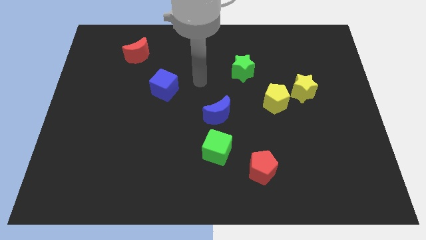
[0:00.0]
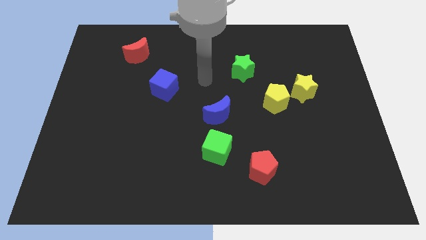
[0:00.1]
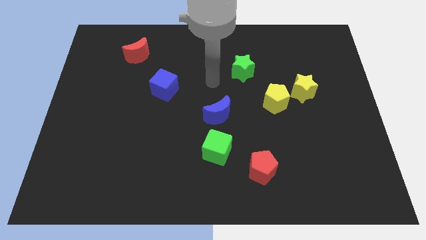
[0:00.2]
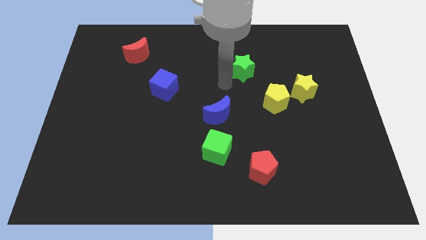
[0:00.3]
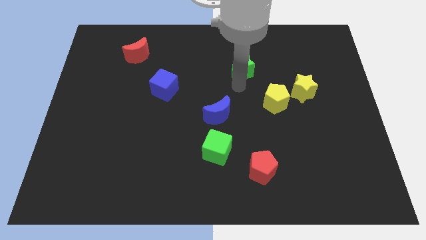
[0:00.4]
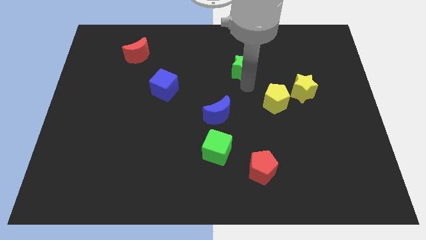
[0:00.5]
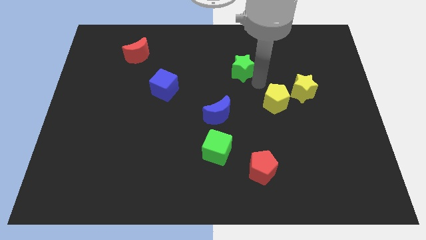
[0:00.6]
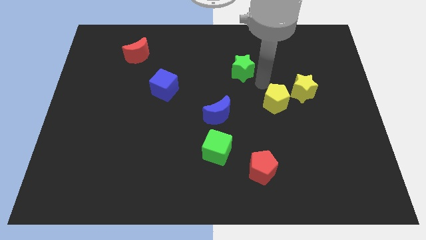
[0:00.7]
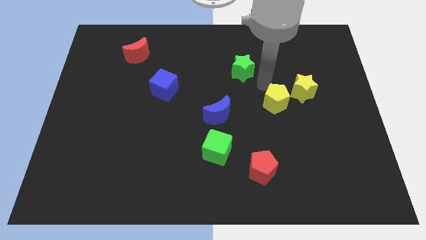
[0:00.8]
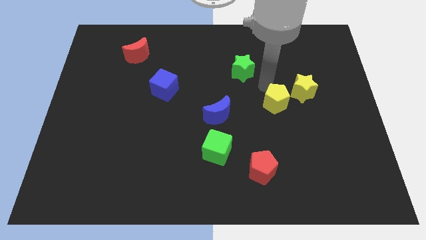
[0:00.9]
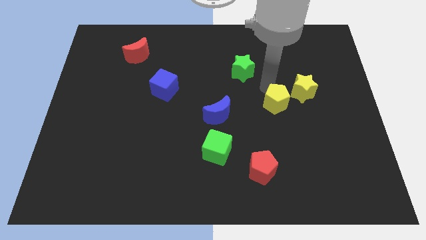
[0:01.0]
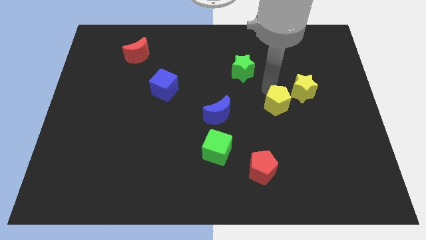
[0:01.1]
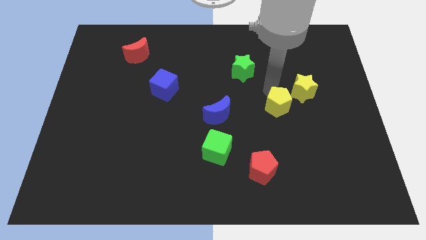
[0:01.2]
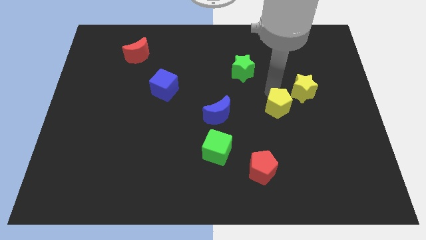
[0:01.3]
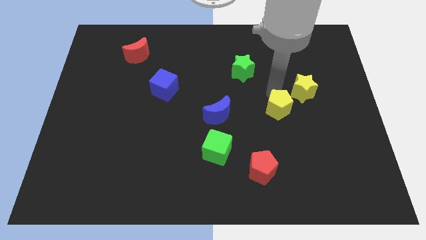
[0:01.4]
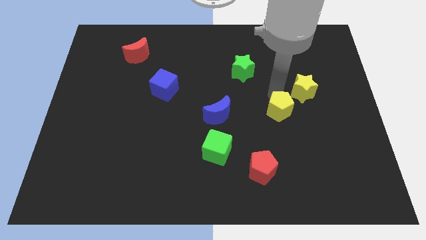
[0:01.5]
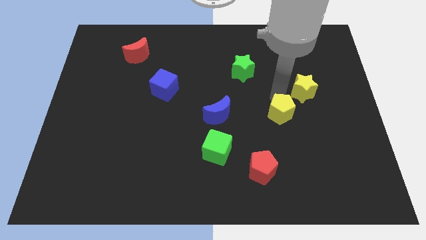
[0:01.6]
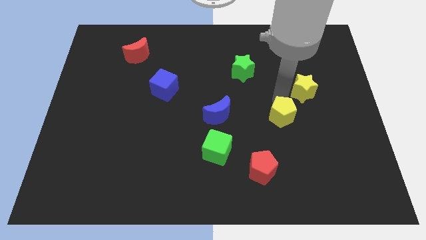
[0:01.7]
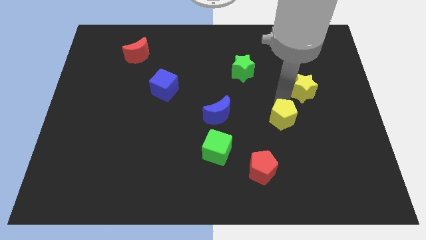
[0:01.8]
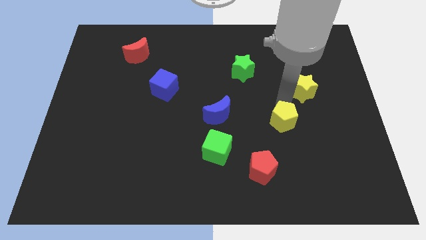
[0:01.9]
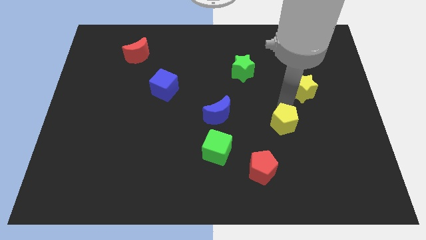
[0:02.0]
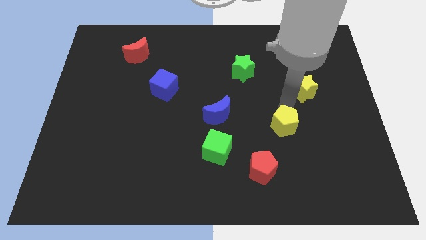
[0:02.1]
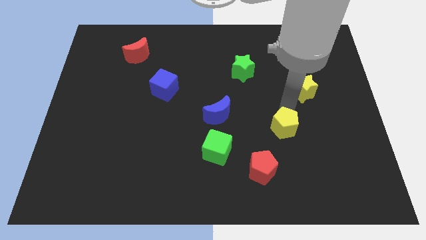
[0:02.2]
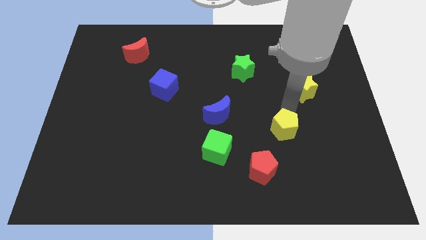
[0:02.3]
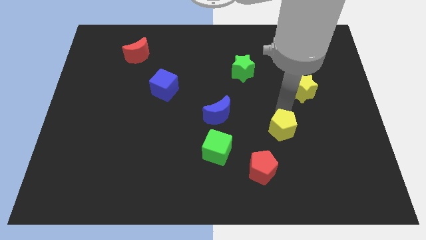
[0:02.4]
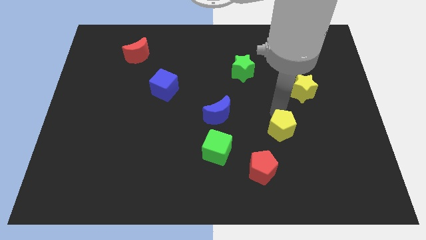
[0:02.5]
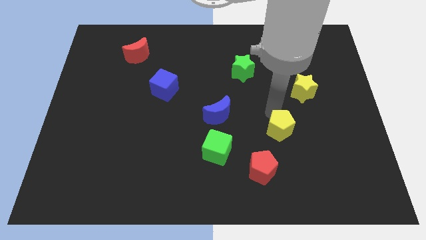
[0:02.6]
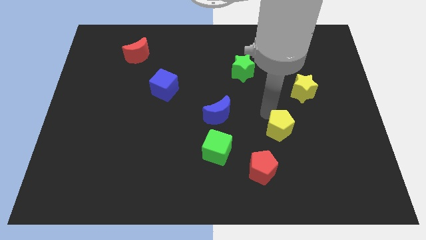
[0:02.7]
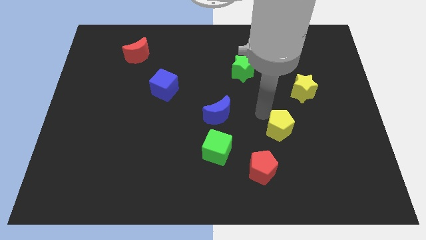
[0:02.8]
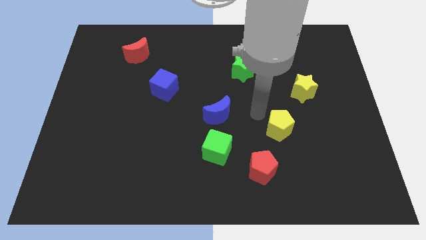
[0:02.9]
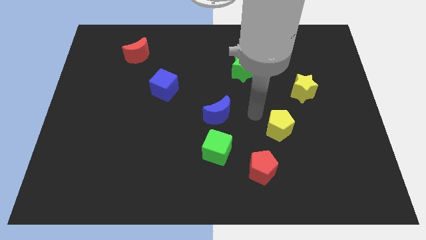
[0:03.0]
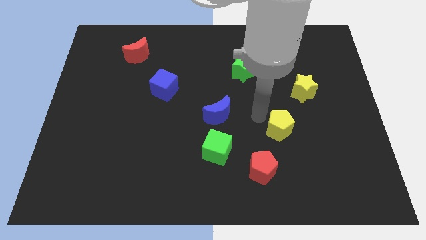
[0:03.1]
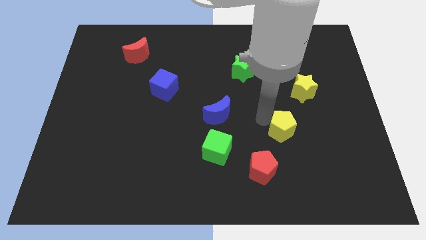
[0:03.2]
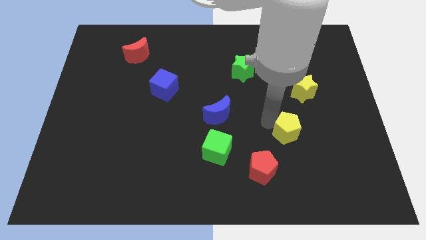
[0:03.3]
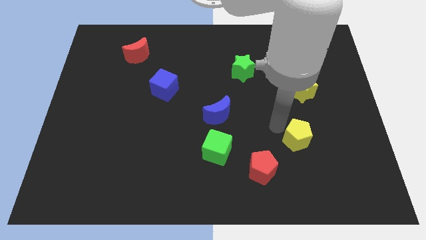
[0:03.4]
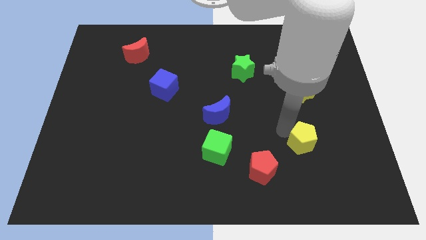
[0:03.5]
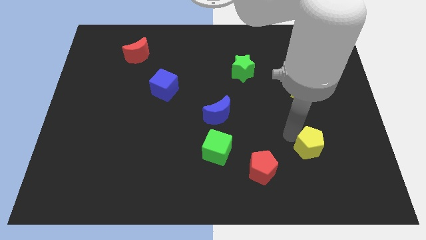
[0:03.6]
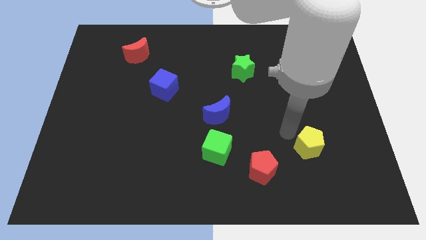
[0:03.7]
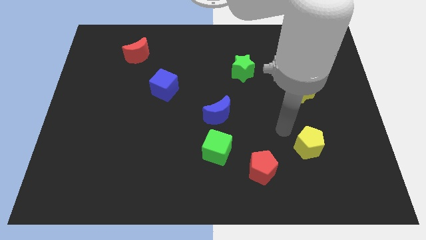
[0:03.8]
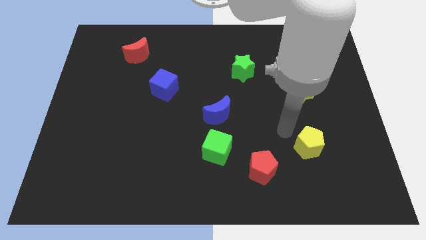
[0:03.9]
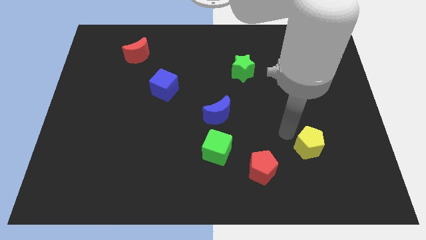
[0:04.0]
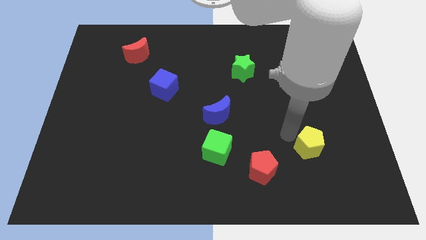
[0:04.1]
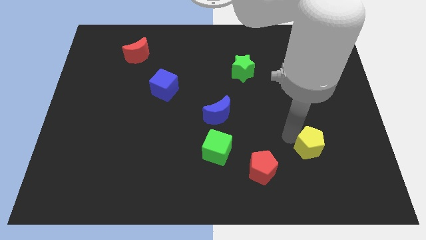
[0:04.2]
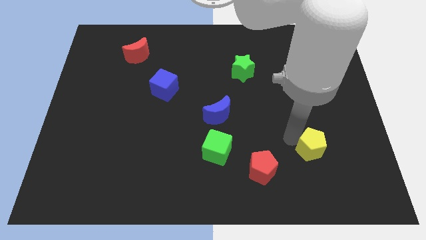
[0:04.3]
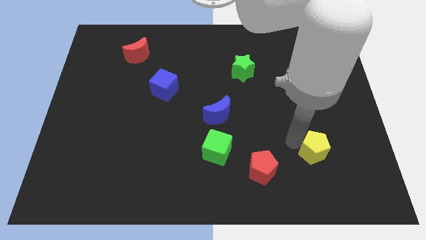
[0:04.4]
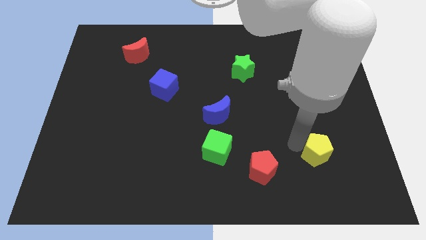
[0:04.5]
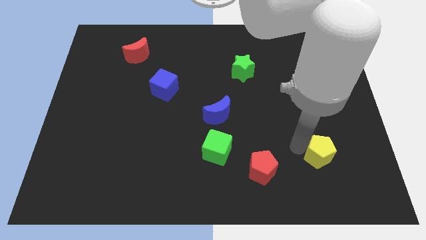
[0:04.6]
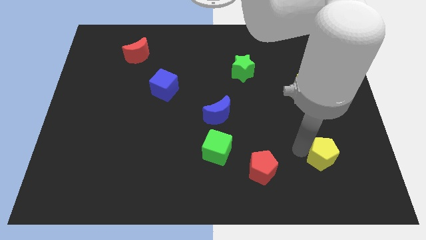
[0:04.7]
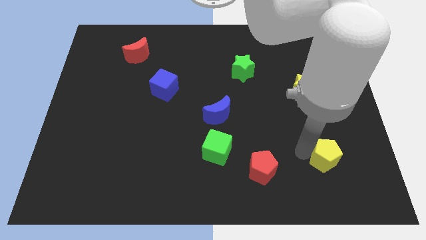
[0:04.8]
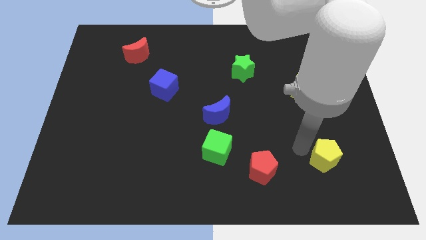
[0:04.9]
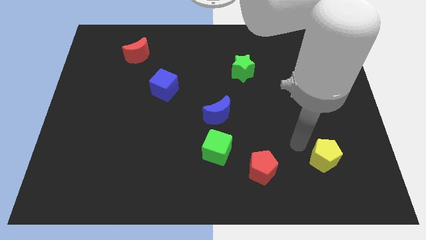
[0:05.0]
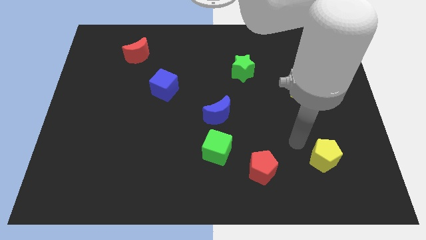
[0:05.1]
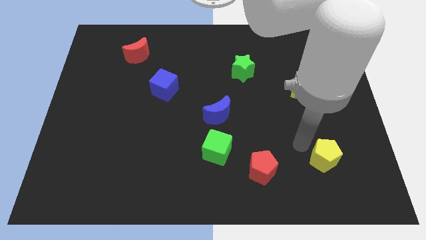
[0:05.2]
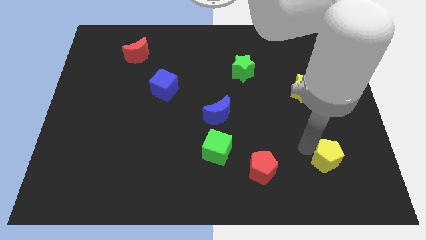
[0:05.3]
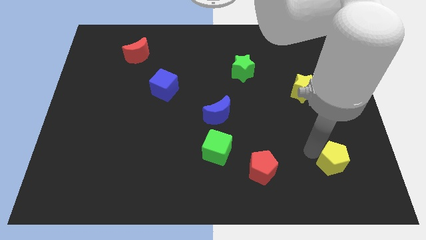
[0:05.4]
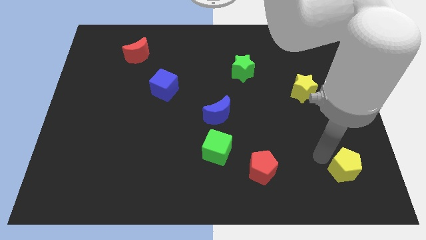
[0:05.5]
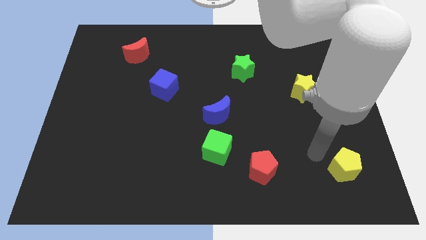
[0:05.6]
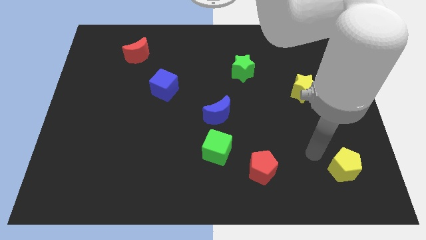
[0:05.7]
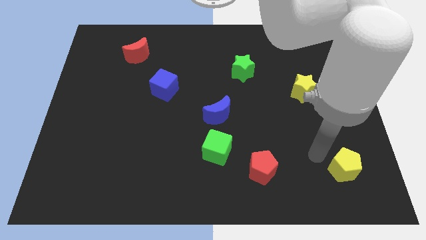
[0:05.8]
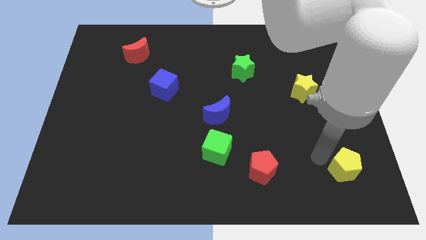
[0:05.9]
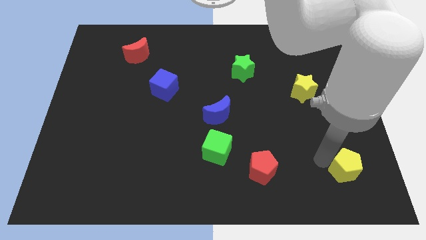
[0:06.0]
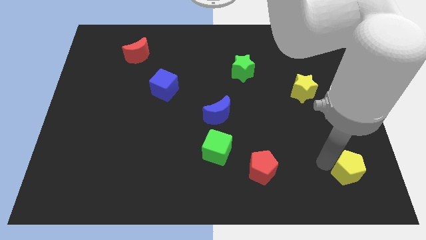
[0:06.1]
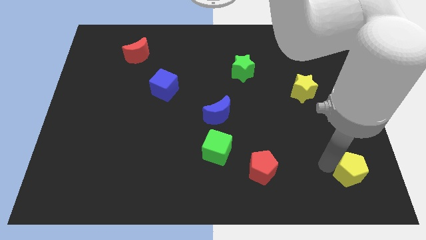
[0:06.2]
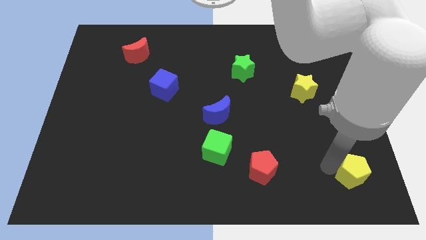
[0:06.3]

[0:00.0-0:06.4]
push the yellow pentagon to the bottom right

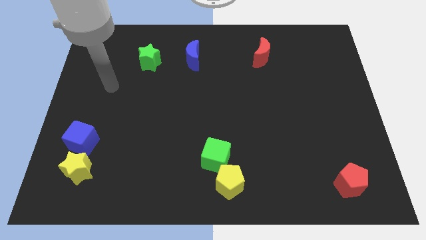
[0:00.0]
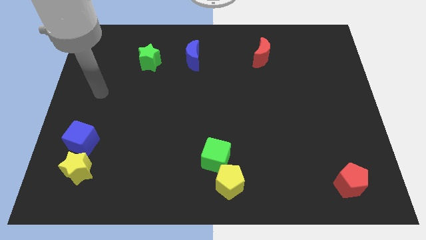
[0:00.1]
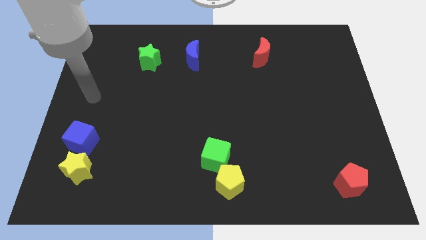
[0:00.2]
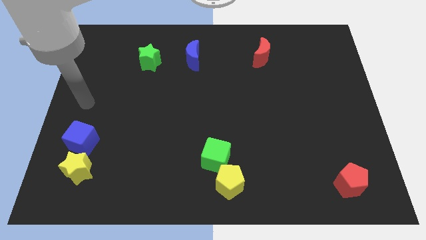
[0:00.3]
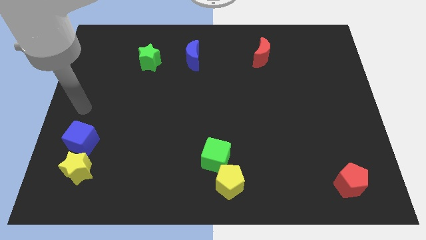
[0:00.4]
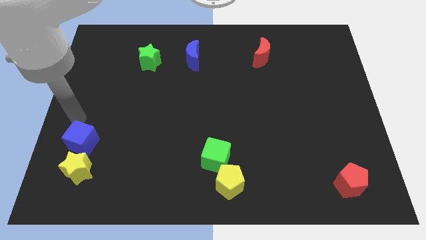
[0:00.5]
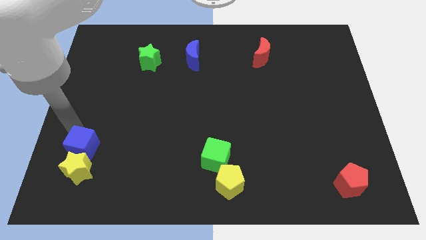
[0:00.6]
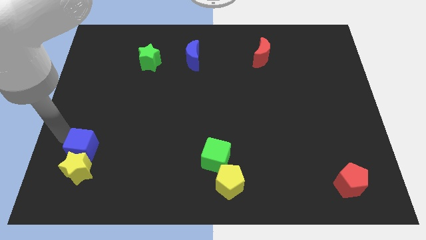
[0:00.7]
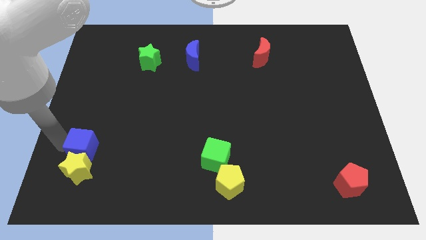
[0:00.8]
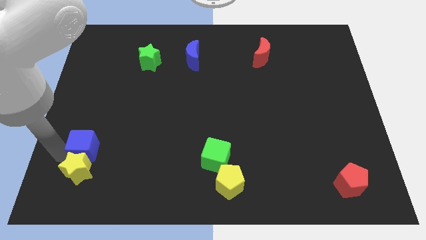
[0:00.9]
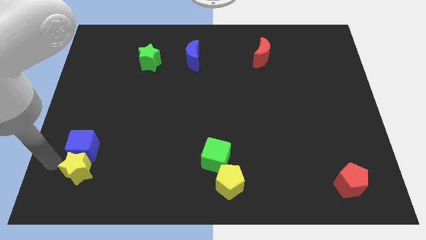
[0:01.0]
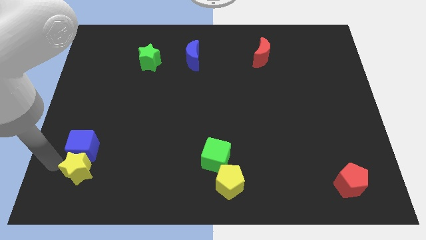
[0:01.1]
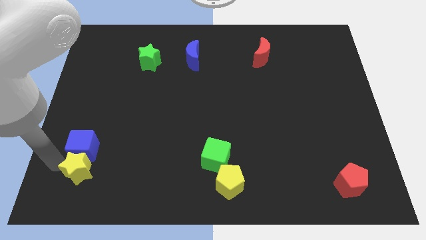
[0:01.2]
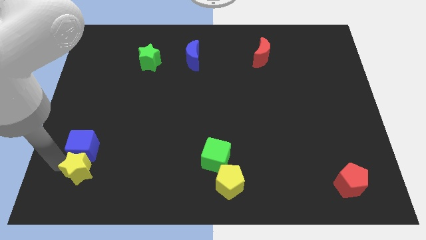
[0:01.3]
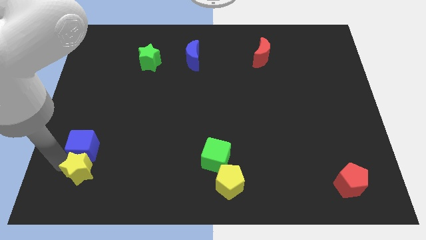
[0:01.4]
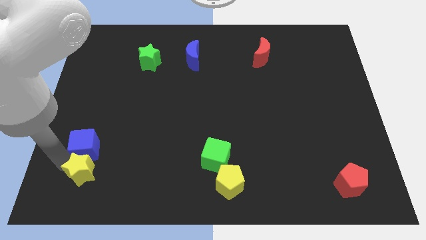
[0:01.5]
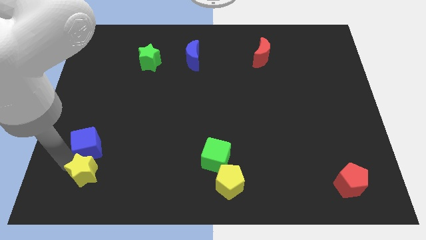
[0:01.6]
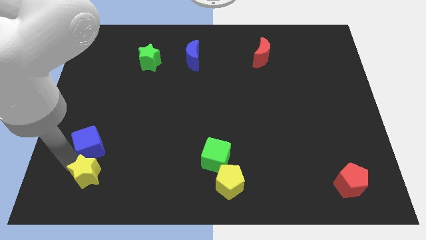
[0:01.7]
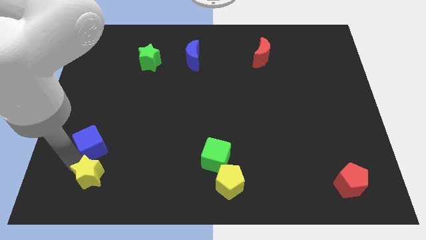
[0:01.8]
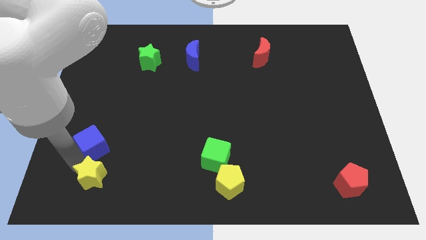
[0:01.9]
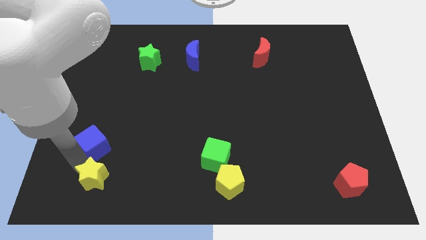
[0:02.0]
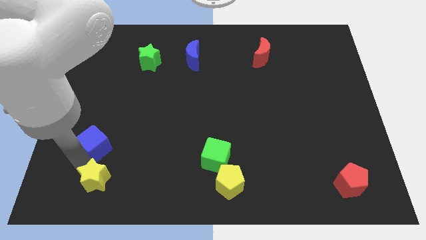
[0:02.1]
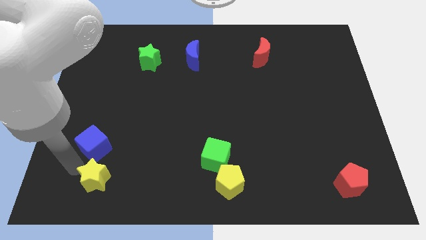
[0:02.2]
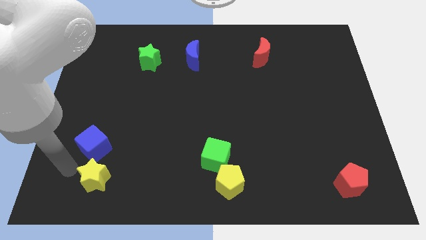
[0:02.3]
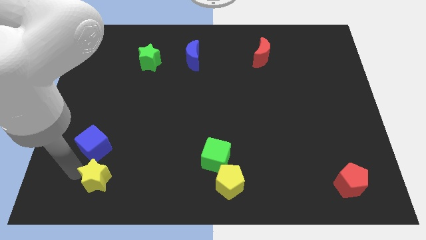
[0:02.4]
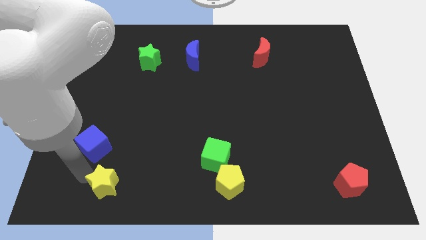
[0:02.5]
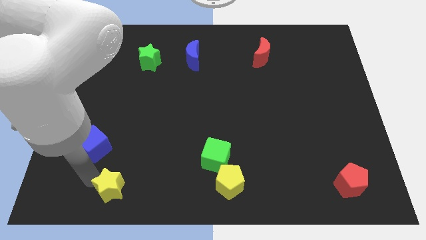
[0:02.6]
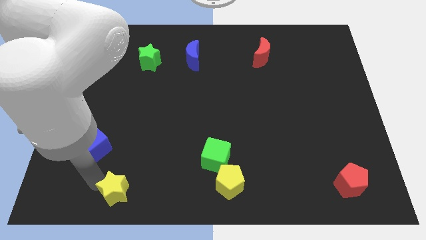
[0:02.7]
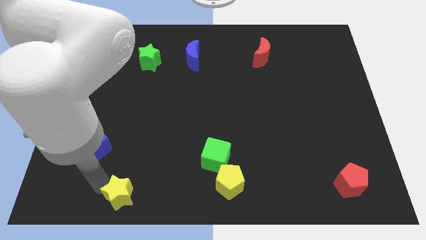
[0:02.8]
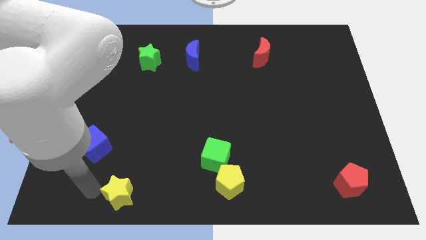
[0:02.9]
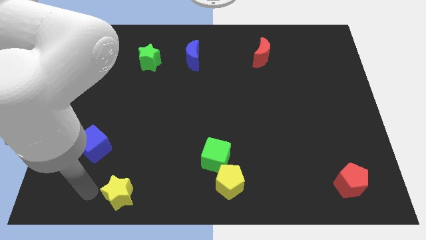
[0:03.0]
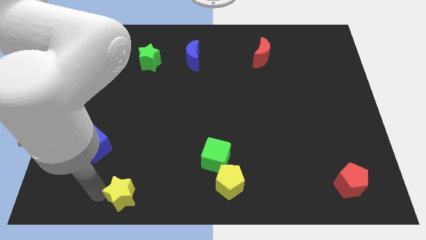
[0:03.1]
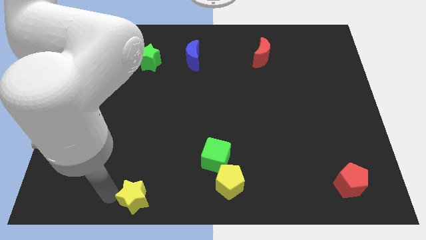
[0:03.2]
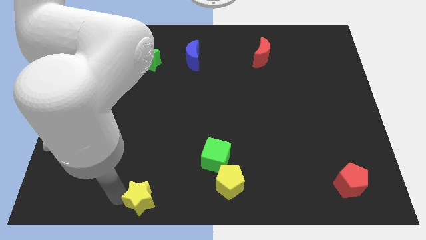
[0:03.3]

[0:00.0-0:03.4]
put the yellow star to the bottom
